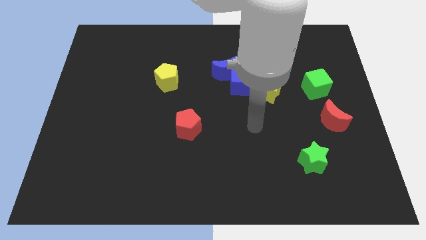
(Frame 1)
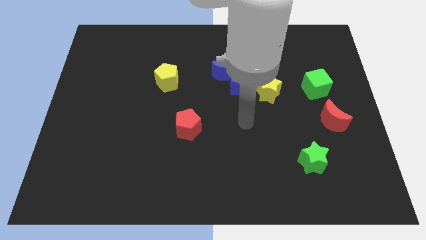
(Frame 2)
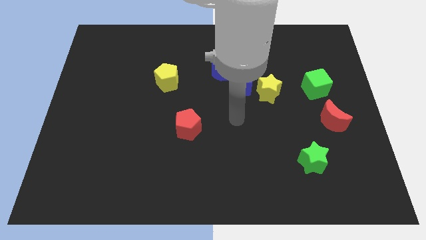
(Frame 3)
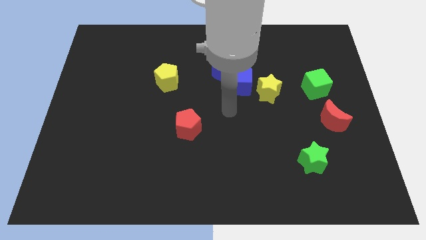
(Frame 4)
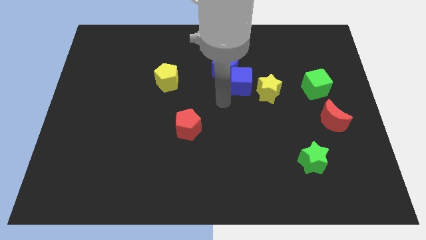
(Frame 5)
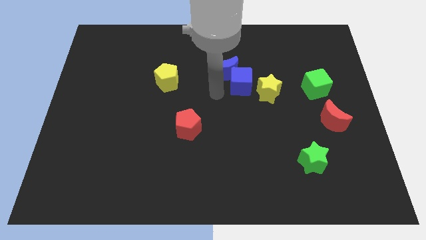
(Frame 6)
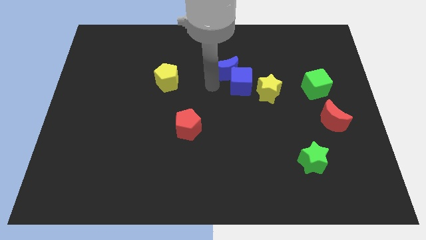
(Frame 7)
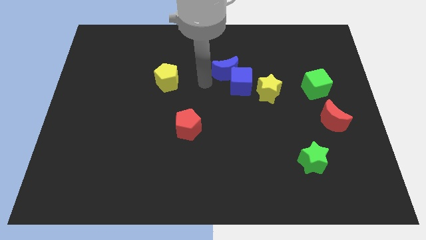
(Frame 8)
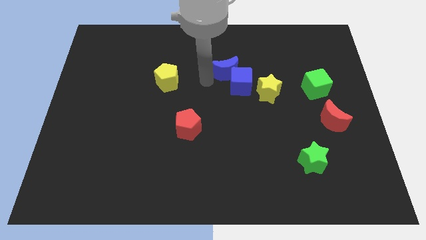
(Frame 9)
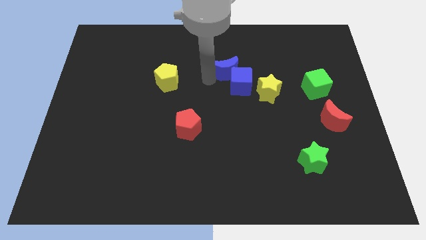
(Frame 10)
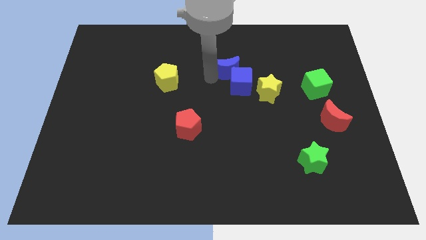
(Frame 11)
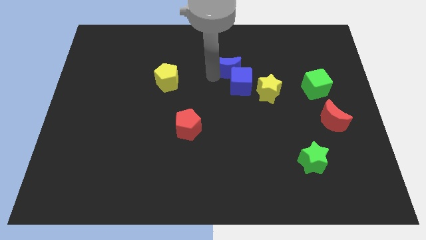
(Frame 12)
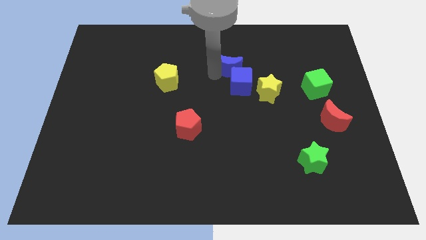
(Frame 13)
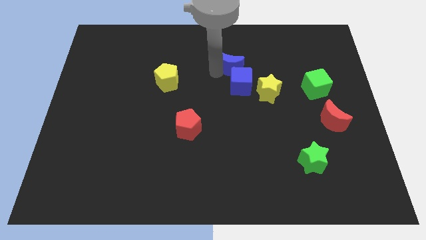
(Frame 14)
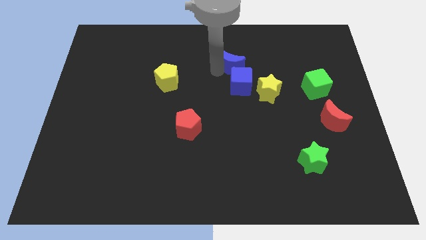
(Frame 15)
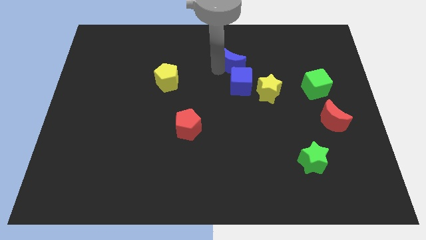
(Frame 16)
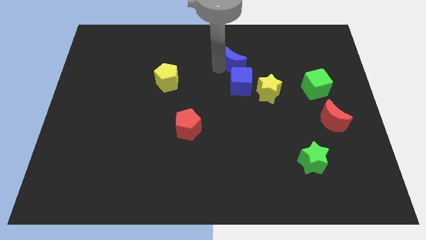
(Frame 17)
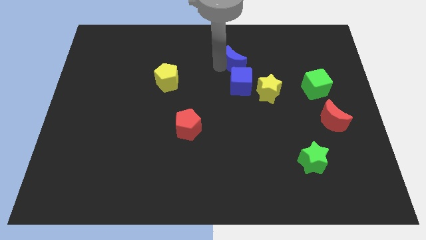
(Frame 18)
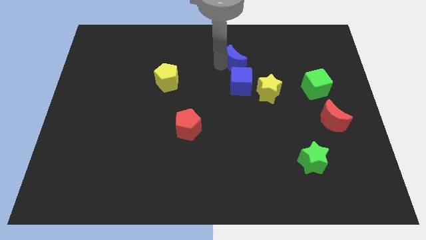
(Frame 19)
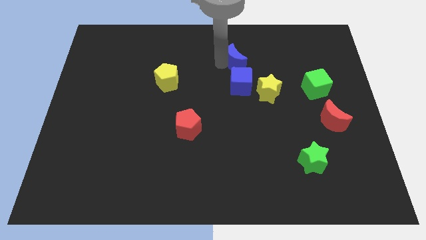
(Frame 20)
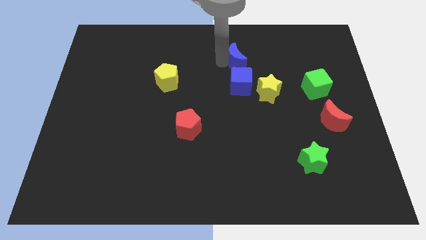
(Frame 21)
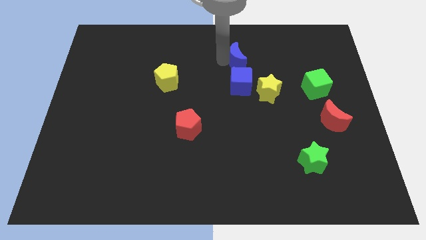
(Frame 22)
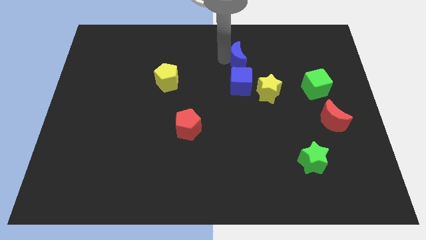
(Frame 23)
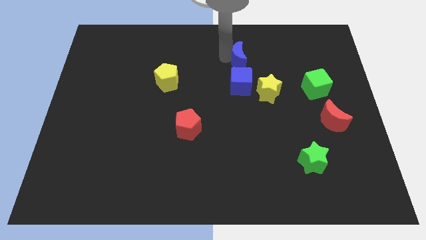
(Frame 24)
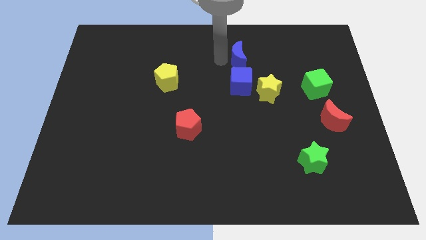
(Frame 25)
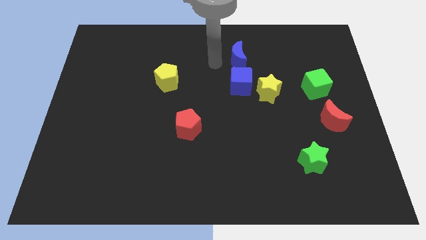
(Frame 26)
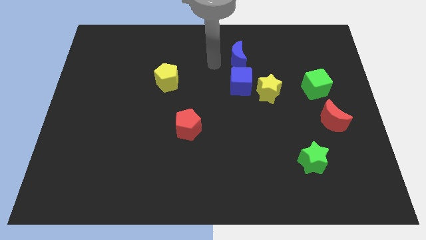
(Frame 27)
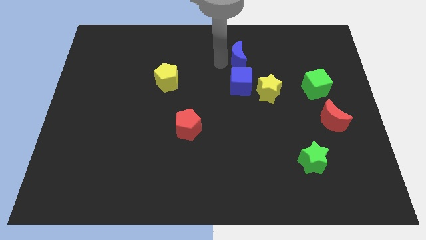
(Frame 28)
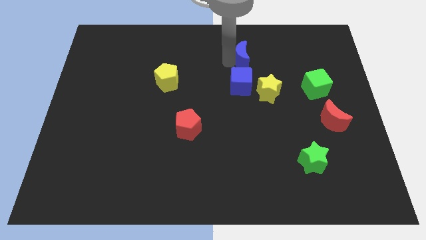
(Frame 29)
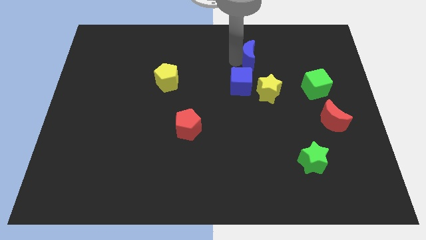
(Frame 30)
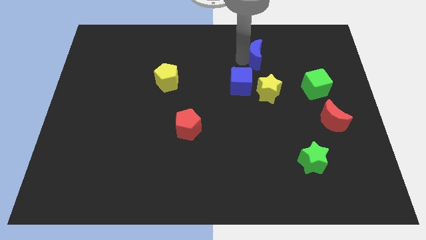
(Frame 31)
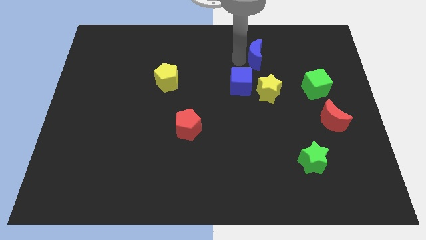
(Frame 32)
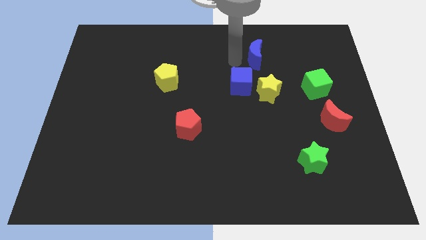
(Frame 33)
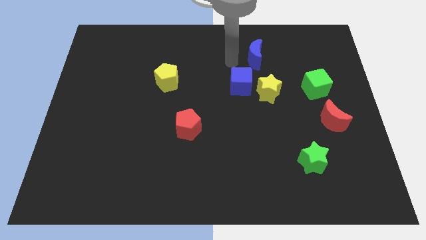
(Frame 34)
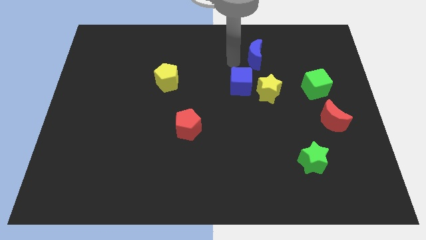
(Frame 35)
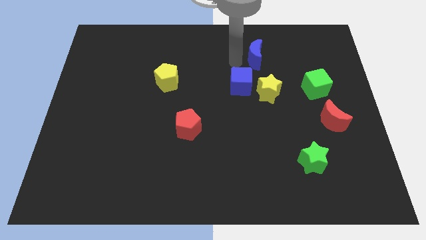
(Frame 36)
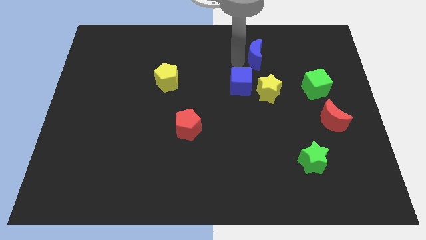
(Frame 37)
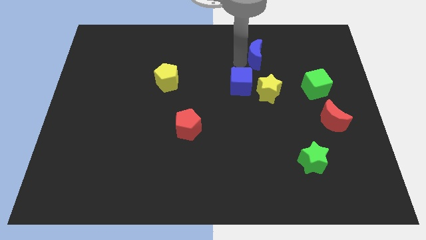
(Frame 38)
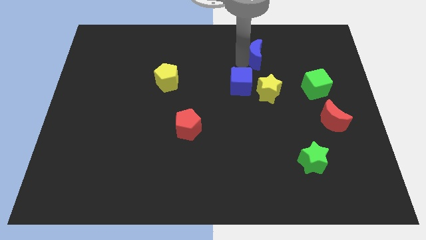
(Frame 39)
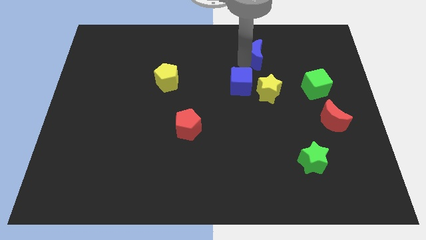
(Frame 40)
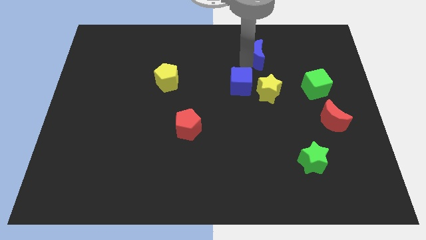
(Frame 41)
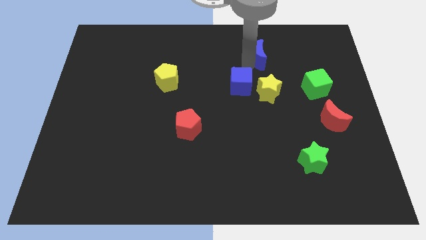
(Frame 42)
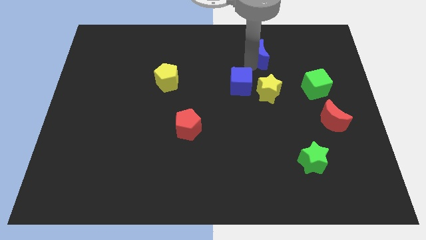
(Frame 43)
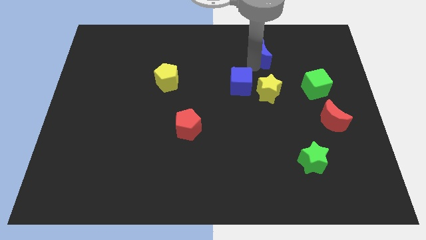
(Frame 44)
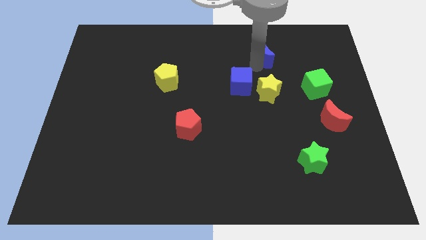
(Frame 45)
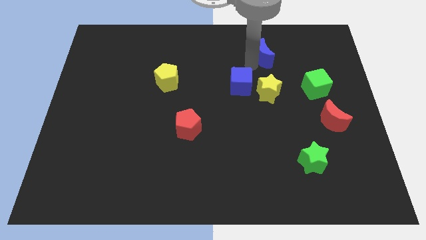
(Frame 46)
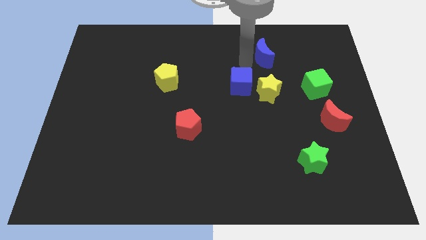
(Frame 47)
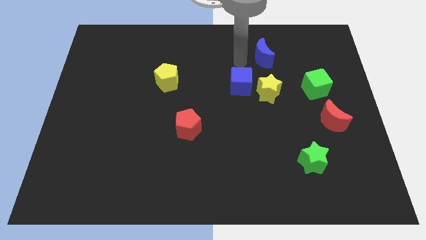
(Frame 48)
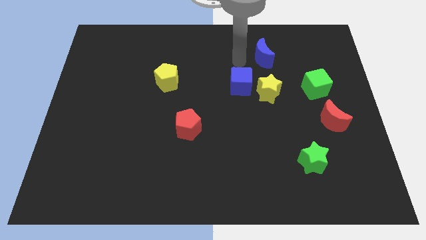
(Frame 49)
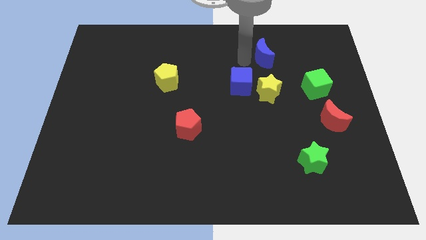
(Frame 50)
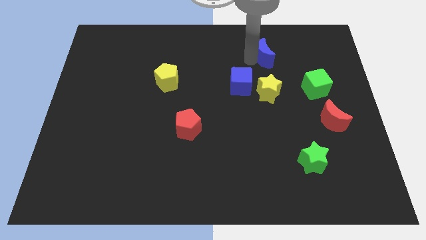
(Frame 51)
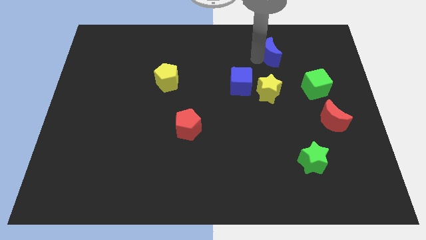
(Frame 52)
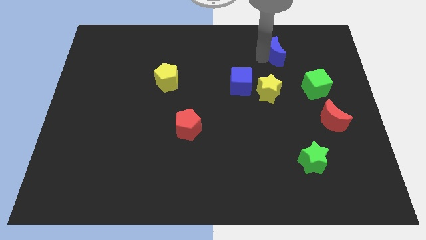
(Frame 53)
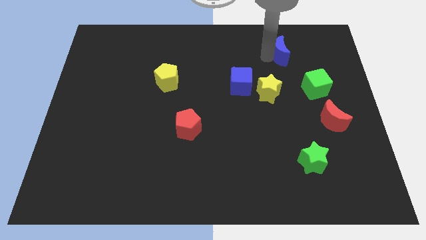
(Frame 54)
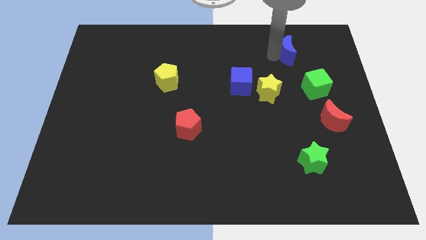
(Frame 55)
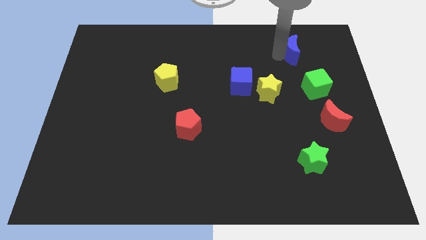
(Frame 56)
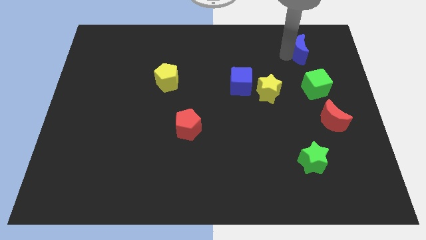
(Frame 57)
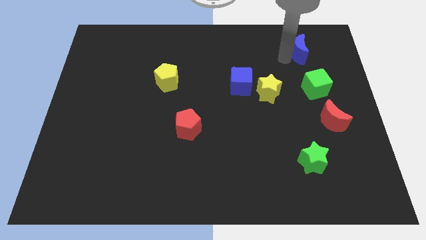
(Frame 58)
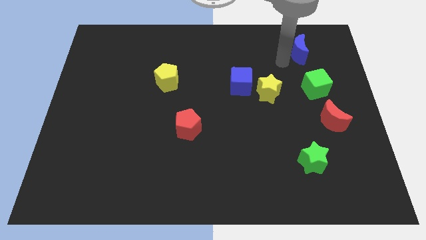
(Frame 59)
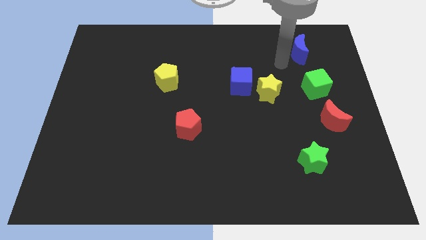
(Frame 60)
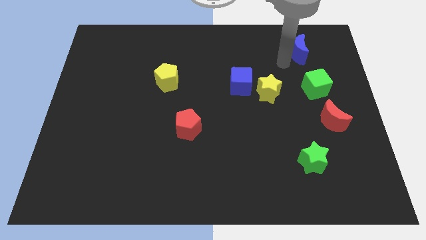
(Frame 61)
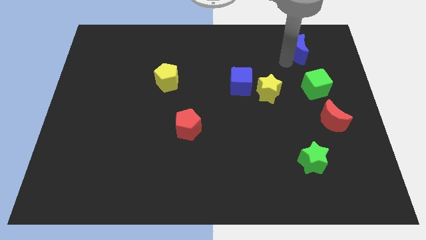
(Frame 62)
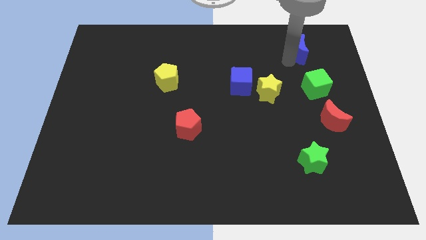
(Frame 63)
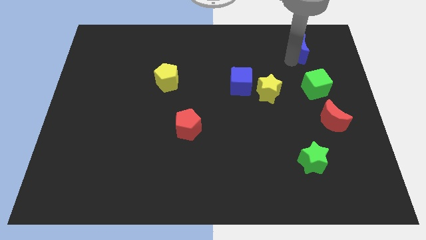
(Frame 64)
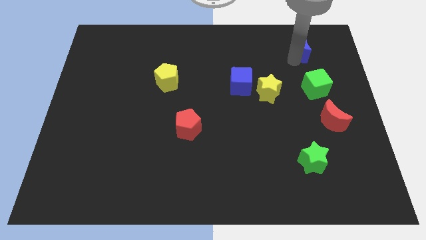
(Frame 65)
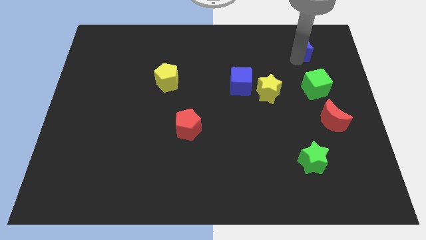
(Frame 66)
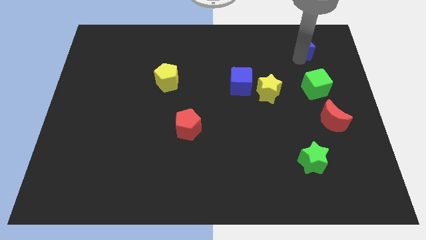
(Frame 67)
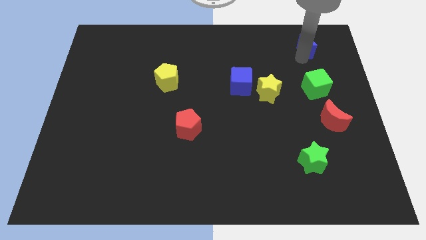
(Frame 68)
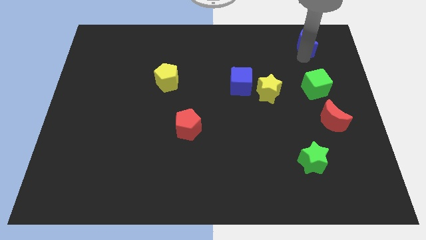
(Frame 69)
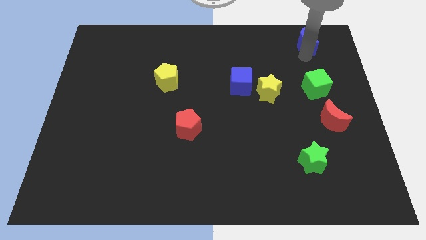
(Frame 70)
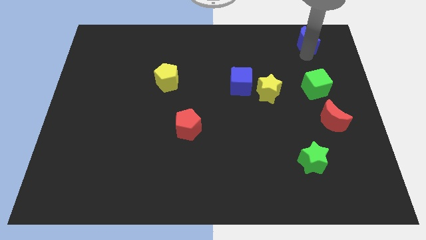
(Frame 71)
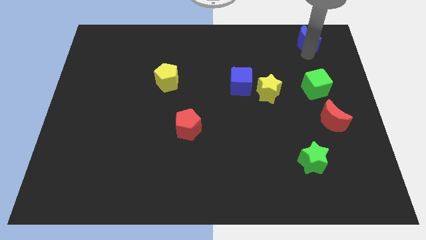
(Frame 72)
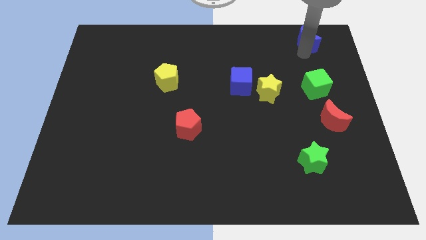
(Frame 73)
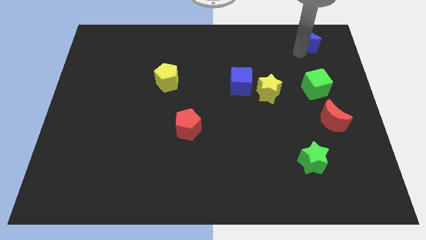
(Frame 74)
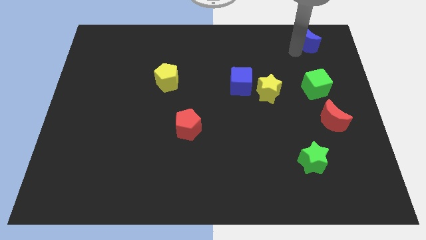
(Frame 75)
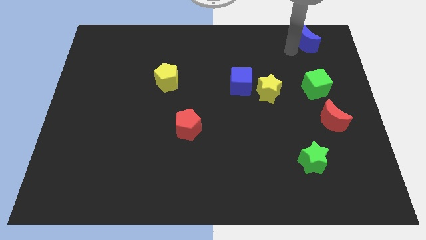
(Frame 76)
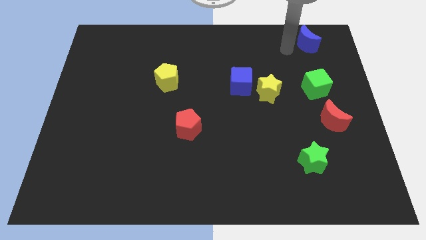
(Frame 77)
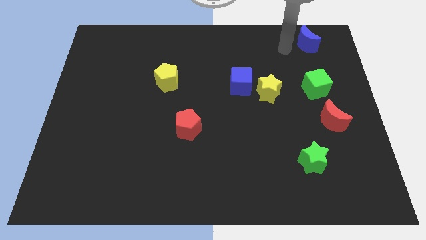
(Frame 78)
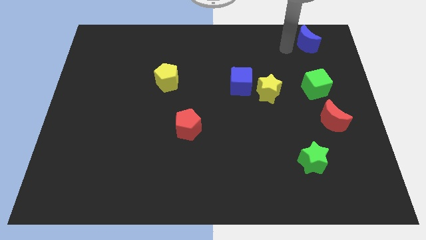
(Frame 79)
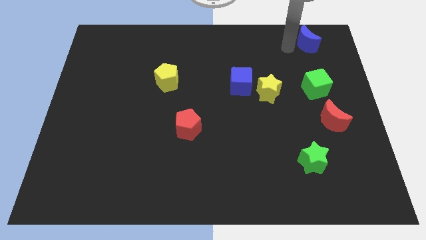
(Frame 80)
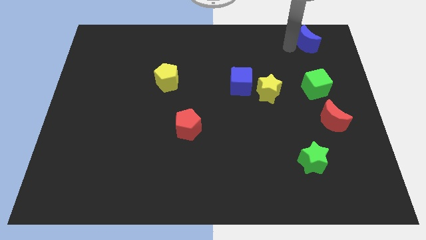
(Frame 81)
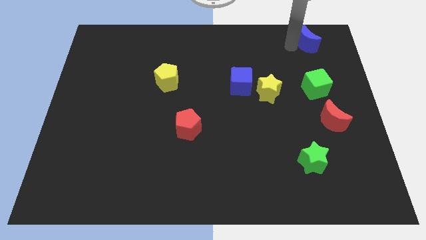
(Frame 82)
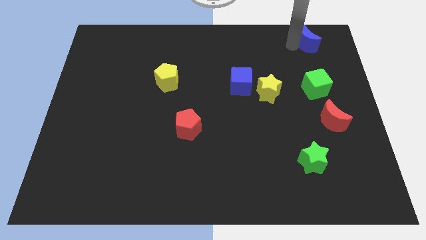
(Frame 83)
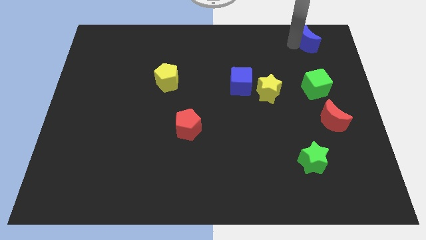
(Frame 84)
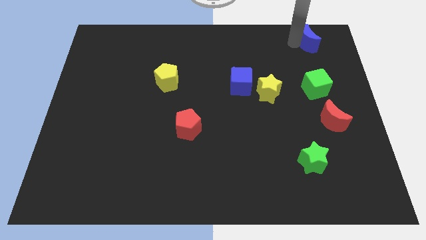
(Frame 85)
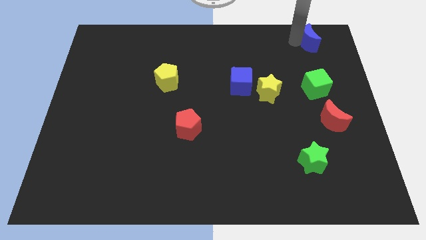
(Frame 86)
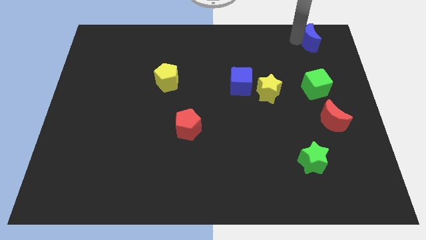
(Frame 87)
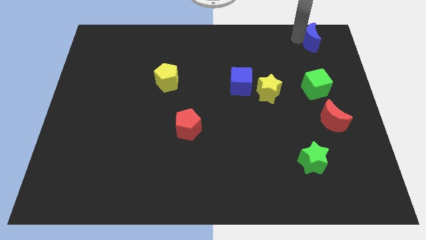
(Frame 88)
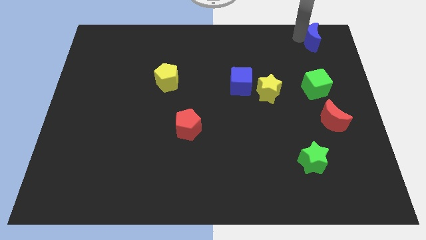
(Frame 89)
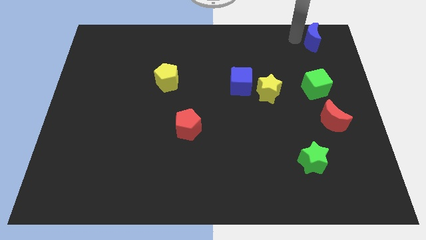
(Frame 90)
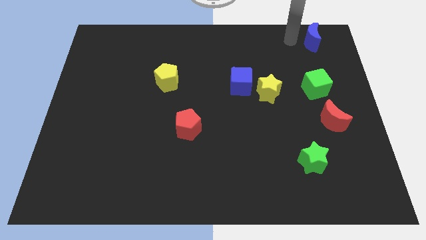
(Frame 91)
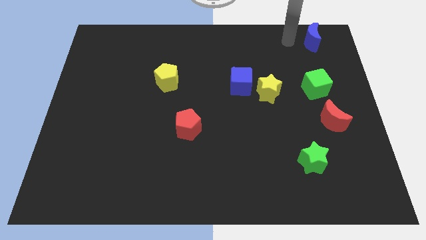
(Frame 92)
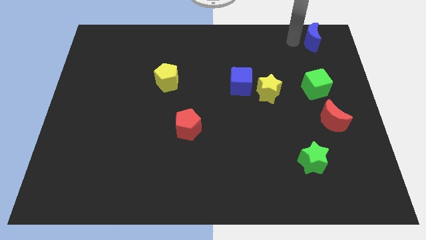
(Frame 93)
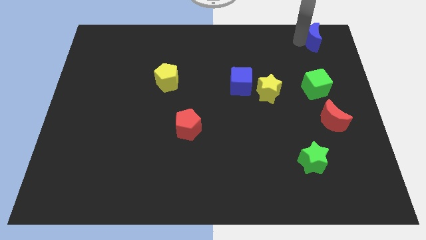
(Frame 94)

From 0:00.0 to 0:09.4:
put the blue moon to the top right of the board
